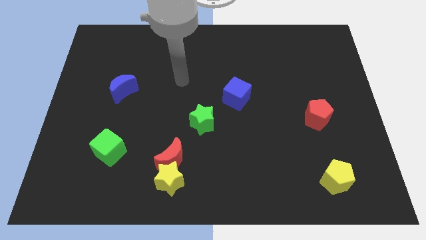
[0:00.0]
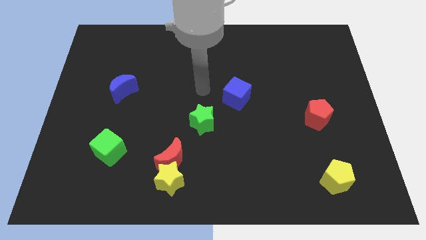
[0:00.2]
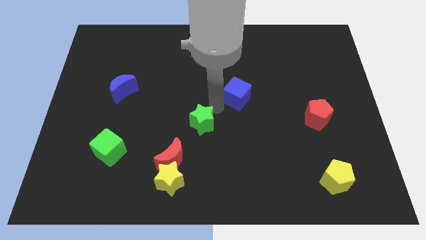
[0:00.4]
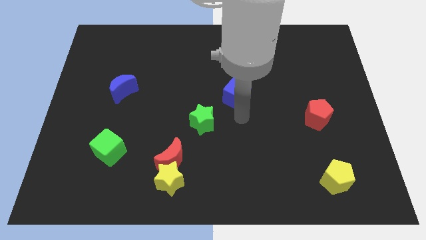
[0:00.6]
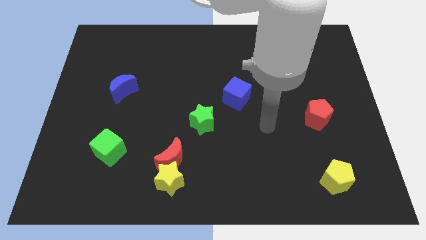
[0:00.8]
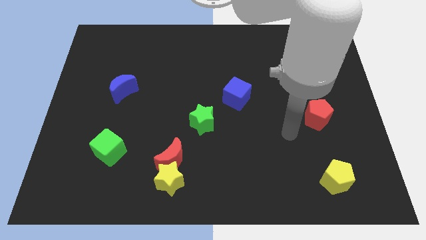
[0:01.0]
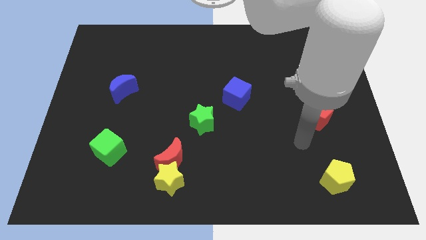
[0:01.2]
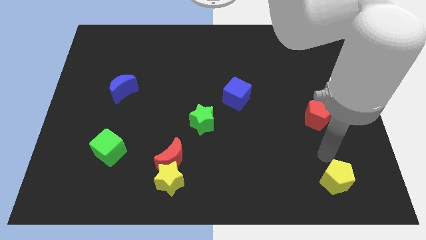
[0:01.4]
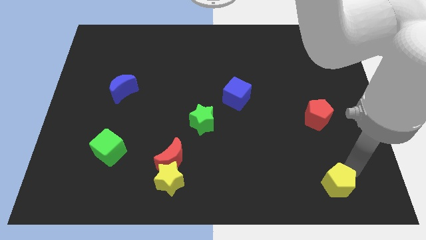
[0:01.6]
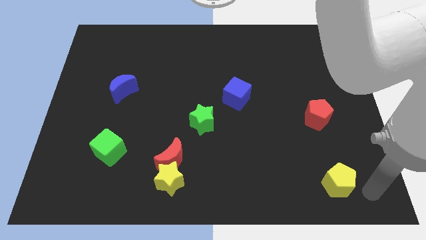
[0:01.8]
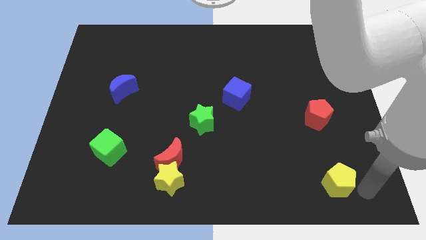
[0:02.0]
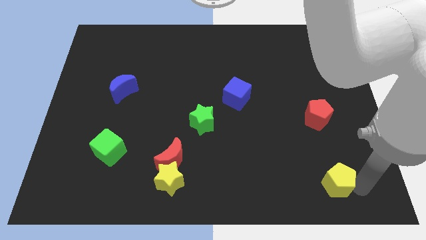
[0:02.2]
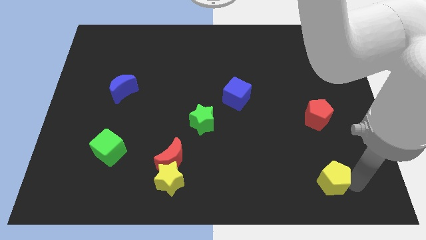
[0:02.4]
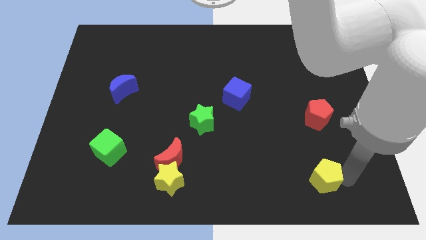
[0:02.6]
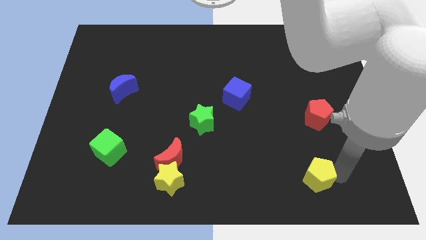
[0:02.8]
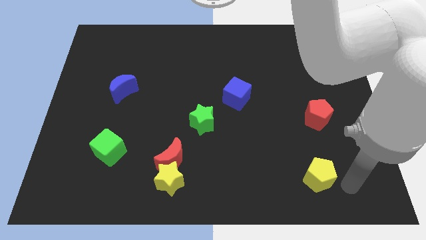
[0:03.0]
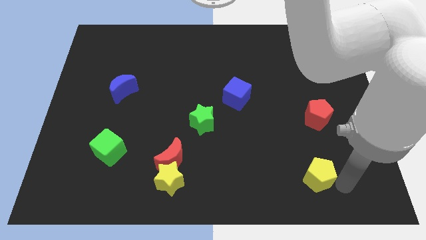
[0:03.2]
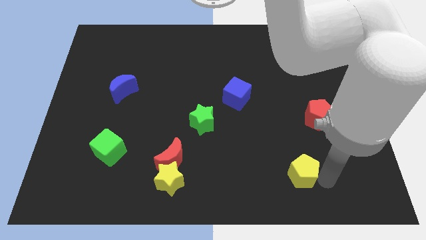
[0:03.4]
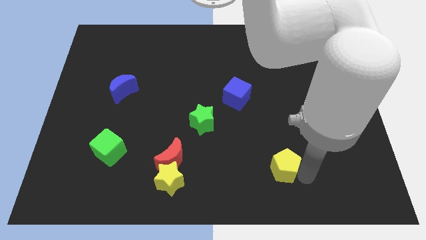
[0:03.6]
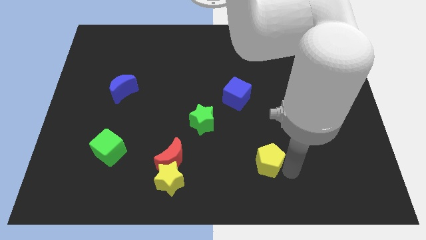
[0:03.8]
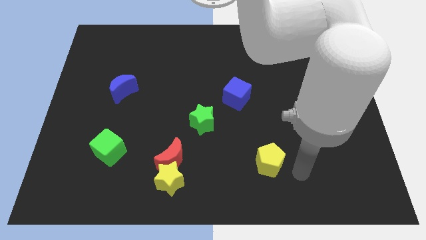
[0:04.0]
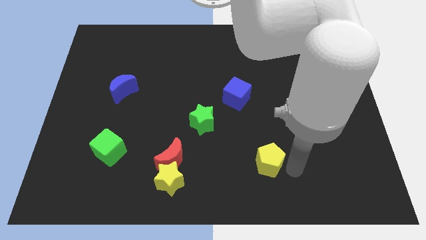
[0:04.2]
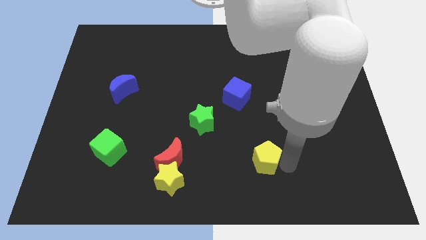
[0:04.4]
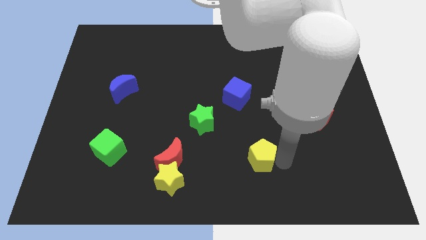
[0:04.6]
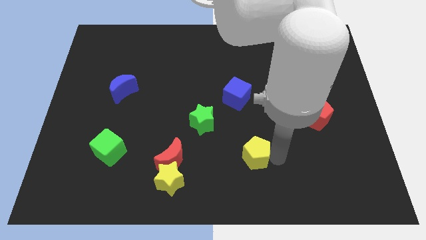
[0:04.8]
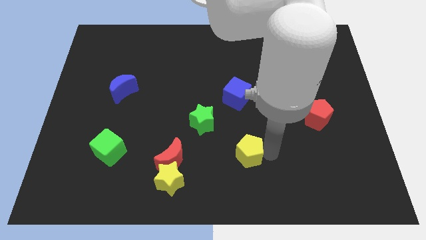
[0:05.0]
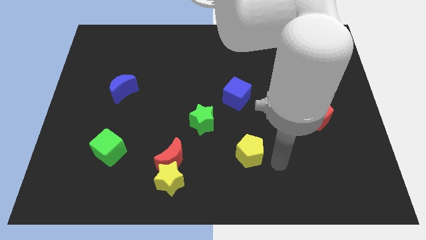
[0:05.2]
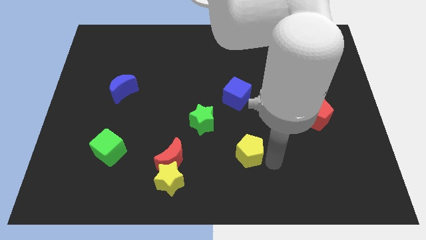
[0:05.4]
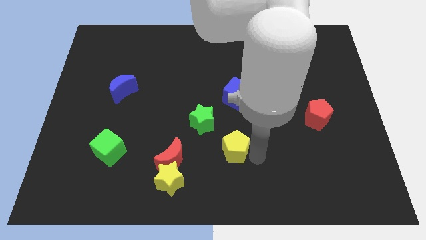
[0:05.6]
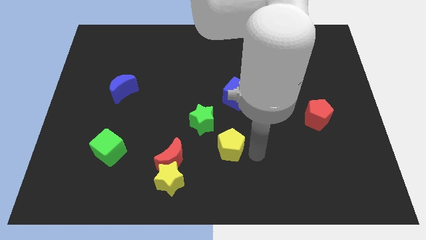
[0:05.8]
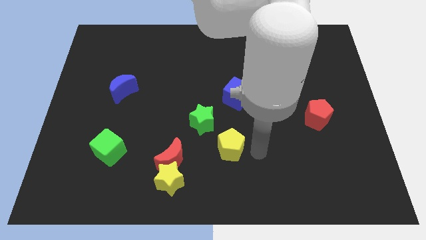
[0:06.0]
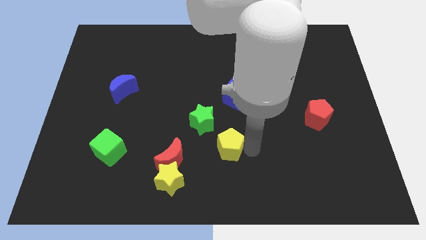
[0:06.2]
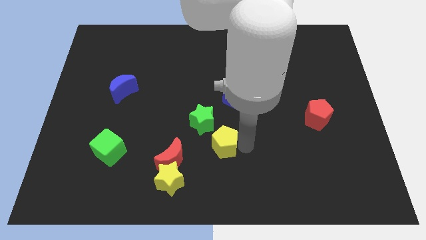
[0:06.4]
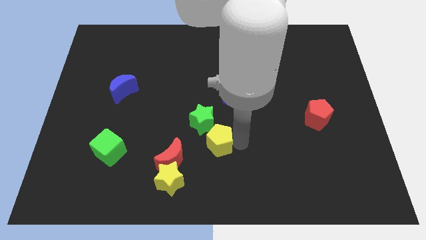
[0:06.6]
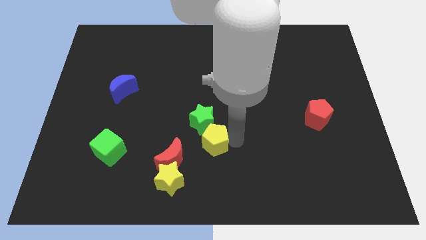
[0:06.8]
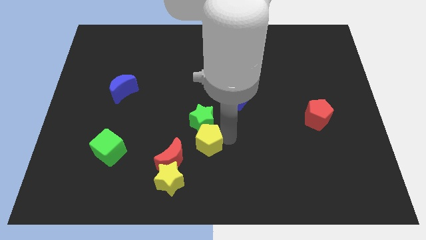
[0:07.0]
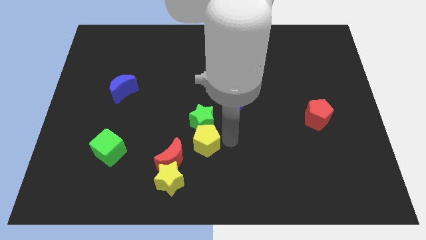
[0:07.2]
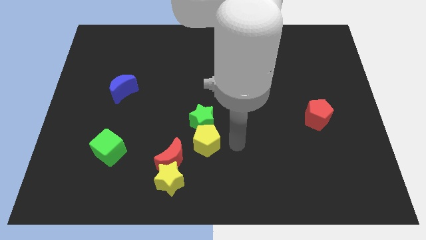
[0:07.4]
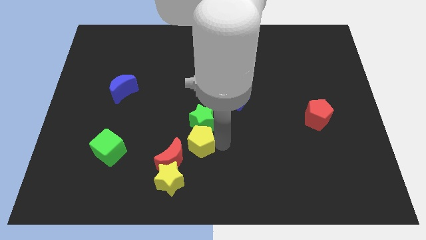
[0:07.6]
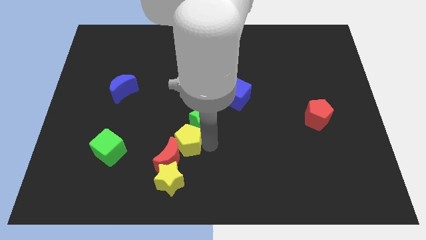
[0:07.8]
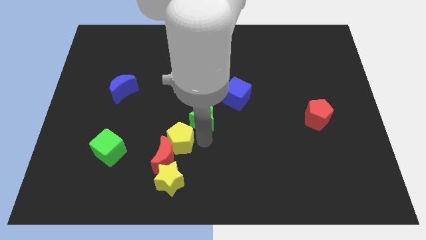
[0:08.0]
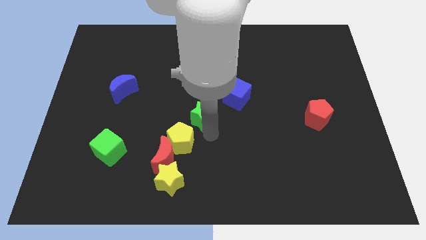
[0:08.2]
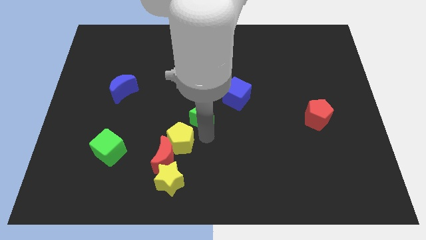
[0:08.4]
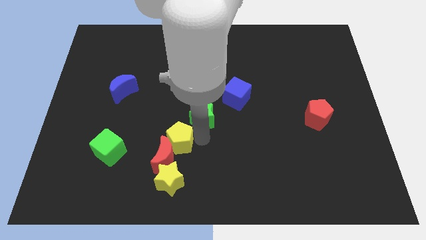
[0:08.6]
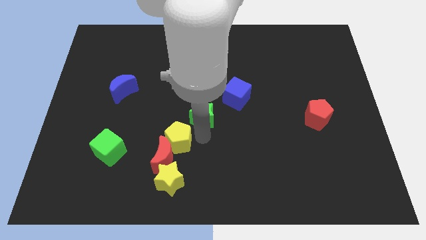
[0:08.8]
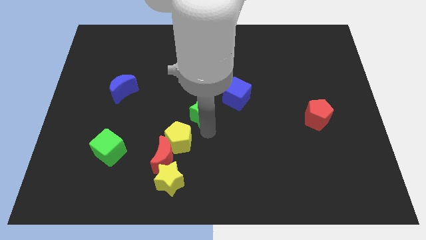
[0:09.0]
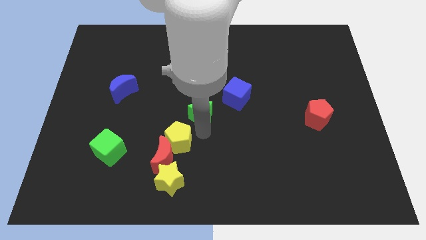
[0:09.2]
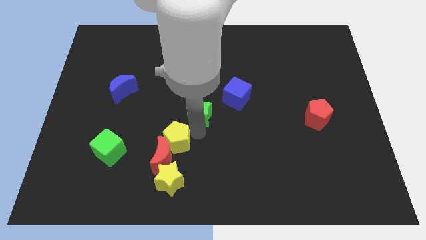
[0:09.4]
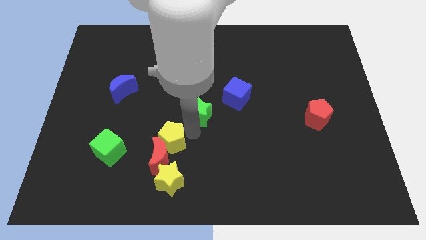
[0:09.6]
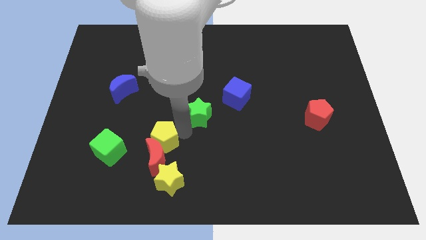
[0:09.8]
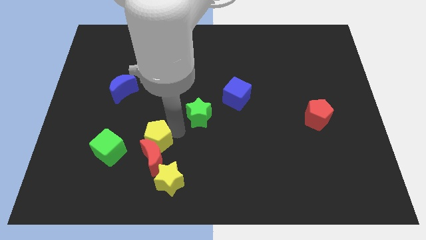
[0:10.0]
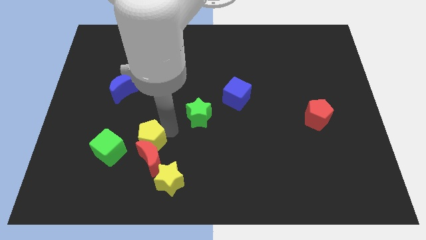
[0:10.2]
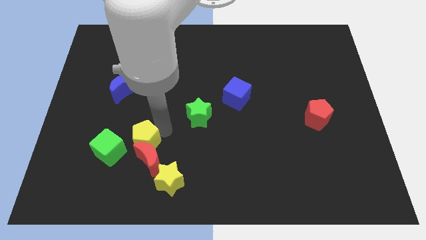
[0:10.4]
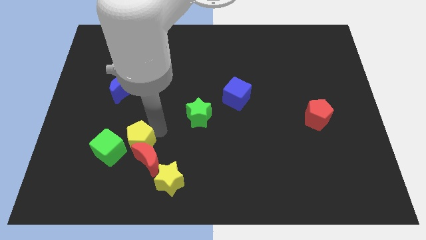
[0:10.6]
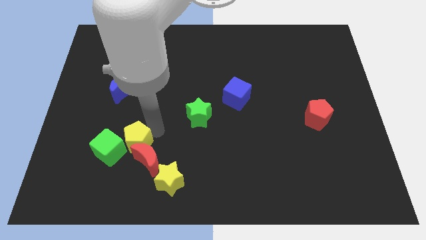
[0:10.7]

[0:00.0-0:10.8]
move the yellow pentagon towards the green cube
